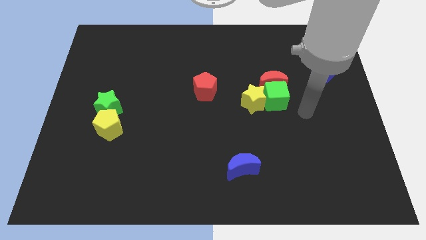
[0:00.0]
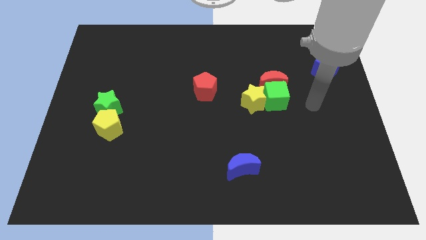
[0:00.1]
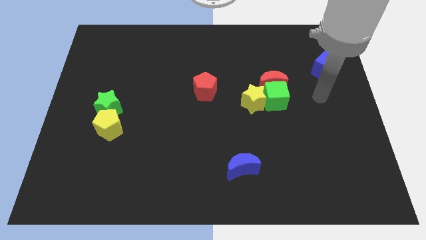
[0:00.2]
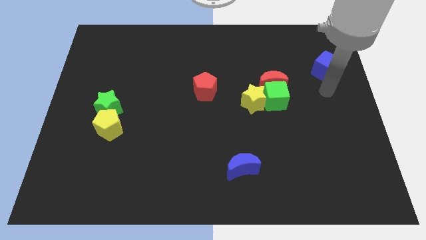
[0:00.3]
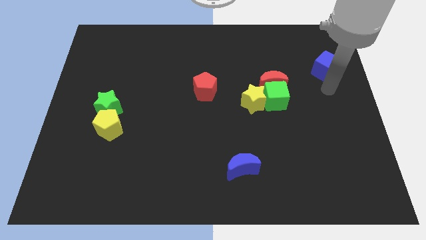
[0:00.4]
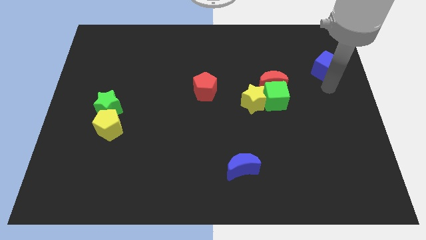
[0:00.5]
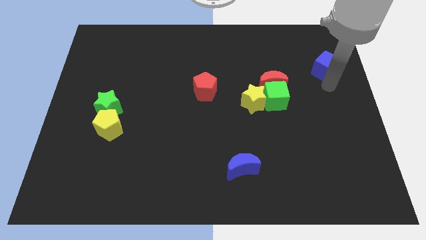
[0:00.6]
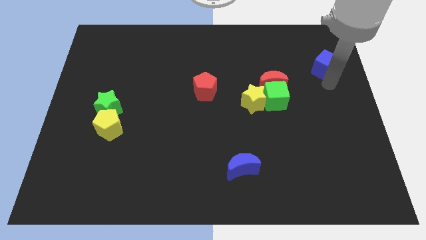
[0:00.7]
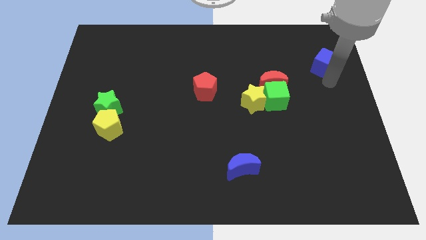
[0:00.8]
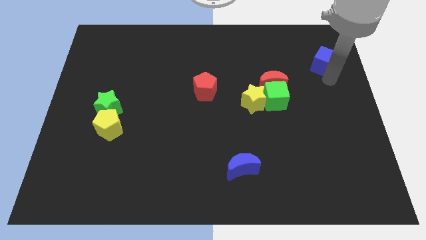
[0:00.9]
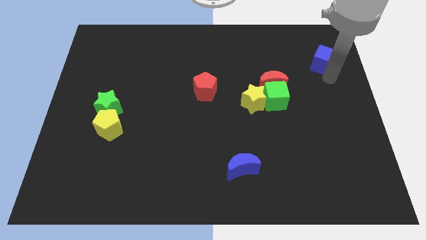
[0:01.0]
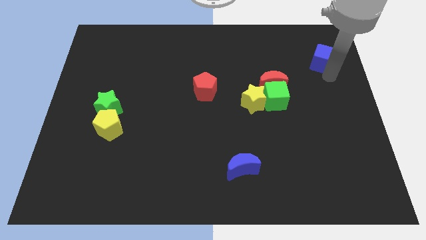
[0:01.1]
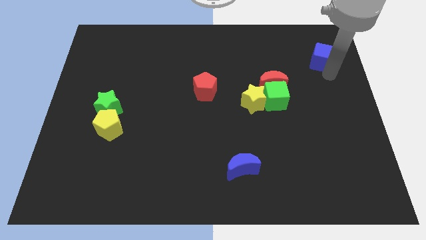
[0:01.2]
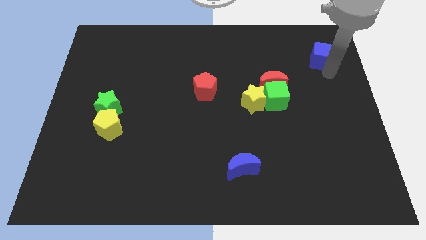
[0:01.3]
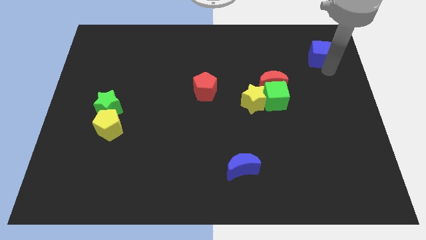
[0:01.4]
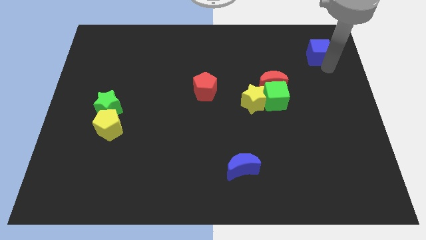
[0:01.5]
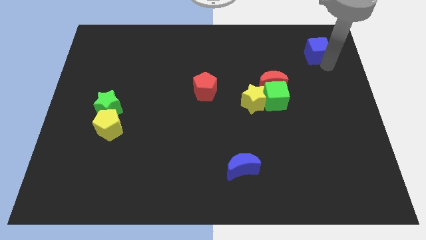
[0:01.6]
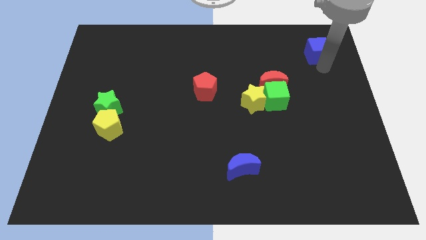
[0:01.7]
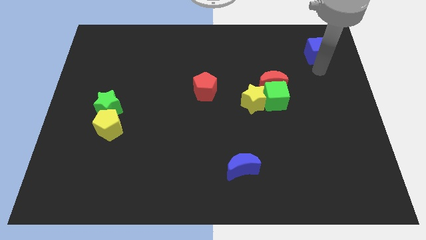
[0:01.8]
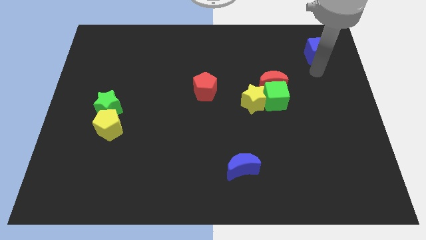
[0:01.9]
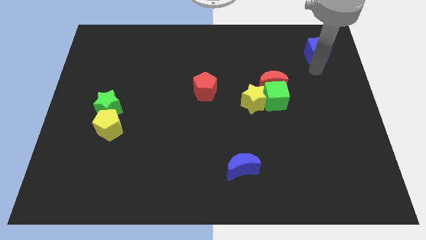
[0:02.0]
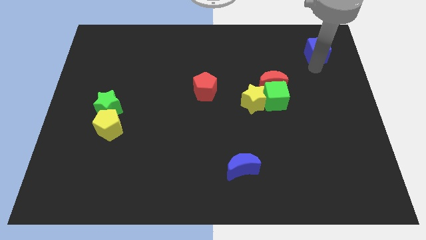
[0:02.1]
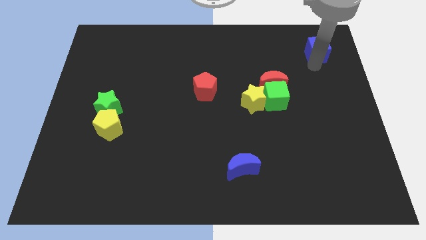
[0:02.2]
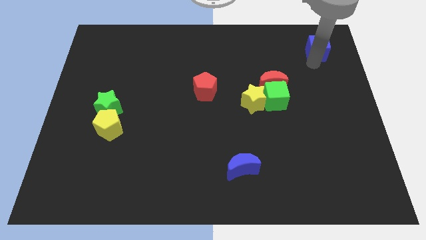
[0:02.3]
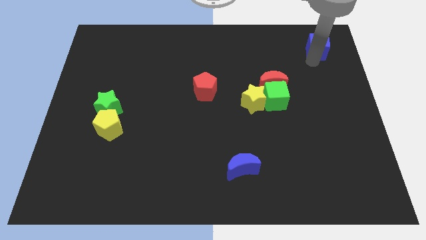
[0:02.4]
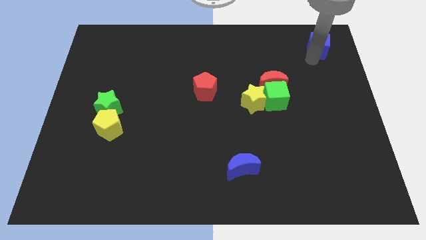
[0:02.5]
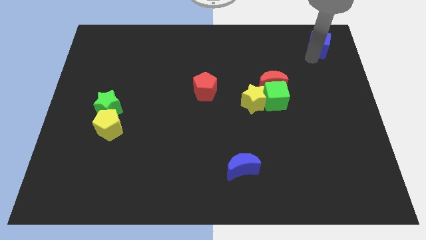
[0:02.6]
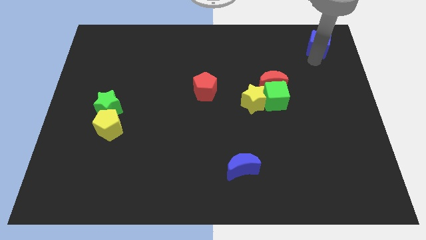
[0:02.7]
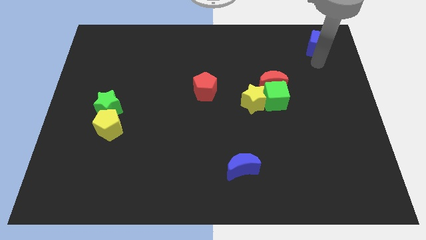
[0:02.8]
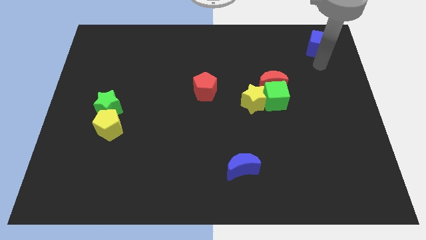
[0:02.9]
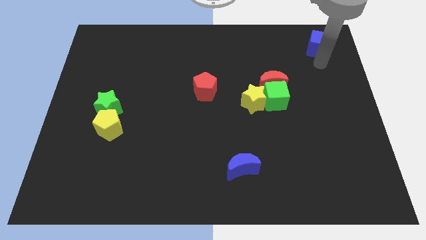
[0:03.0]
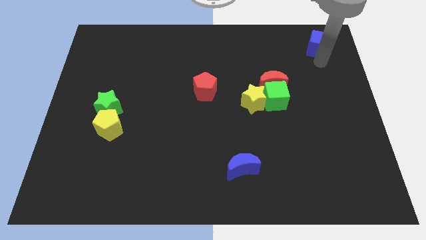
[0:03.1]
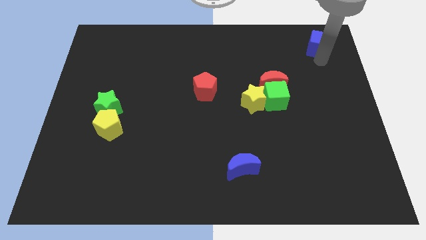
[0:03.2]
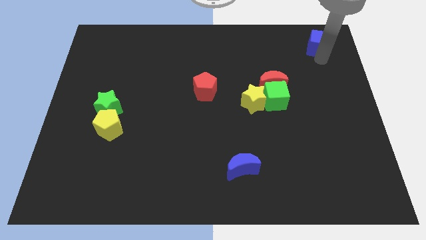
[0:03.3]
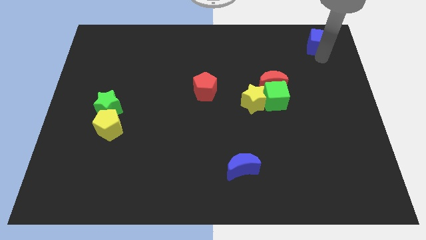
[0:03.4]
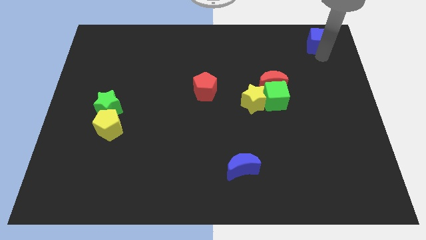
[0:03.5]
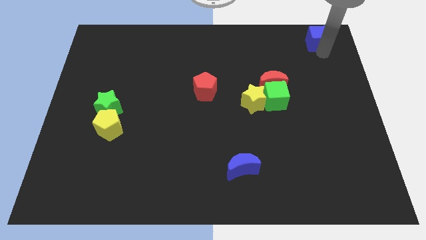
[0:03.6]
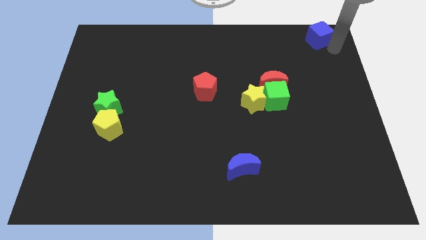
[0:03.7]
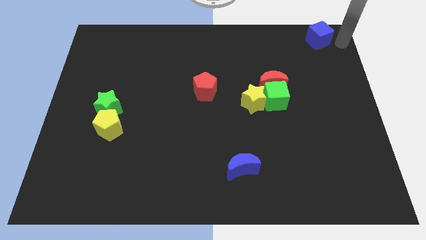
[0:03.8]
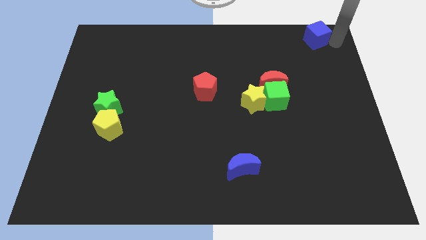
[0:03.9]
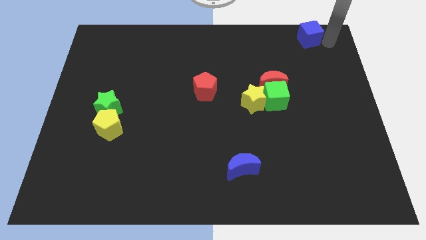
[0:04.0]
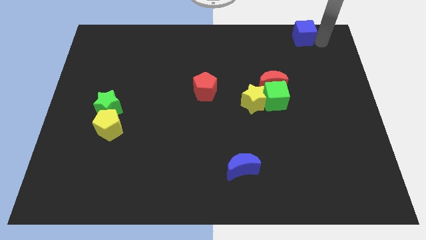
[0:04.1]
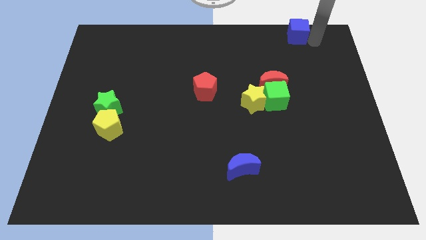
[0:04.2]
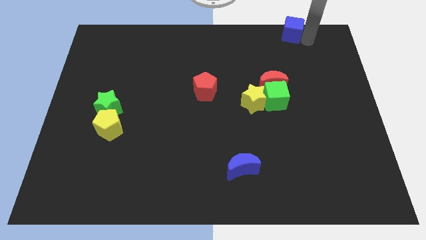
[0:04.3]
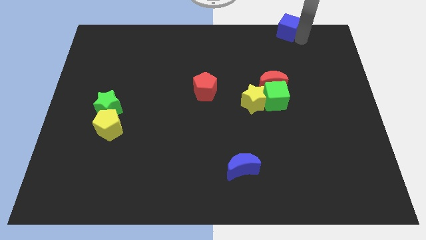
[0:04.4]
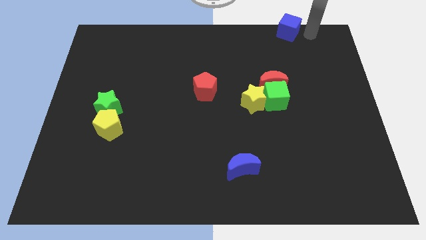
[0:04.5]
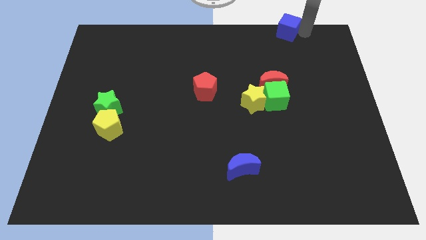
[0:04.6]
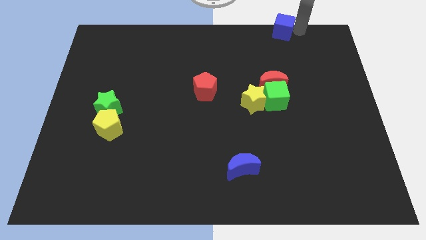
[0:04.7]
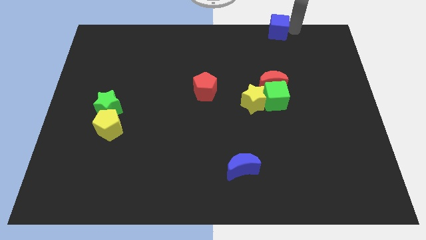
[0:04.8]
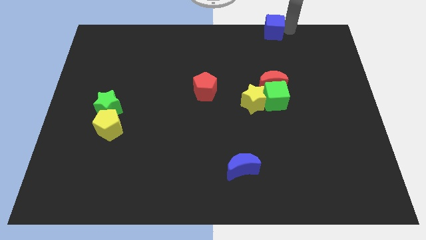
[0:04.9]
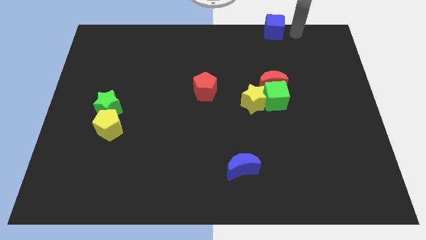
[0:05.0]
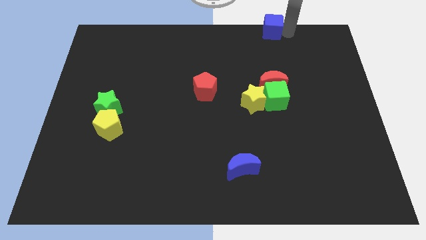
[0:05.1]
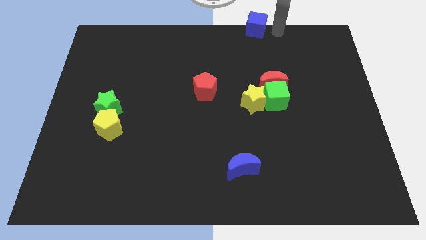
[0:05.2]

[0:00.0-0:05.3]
put the blue cube to the top
